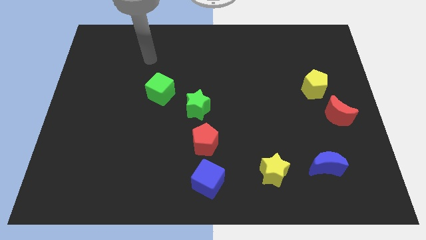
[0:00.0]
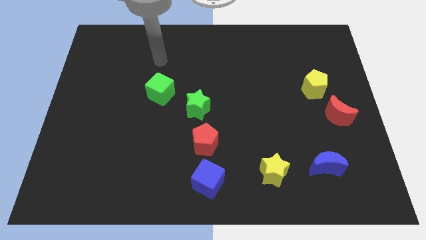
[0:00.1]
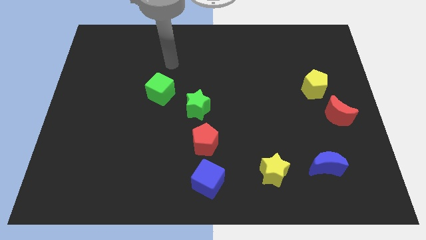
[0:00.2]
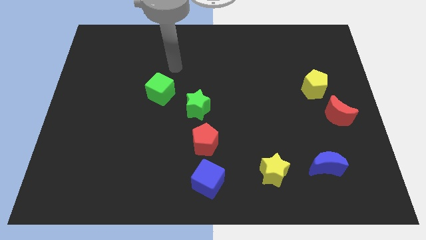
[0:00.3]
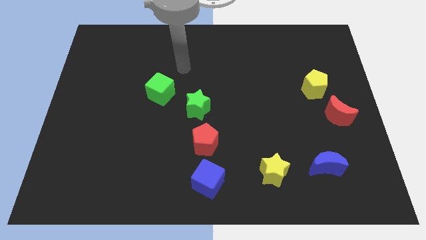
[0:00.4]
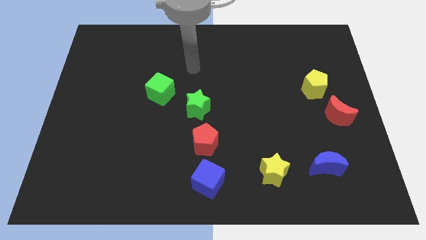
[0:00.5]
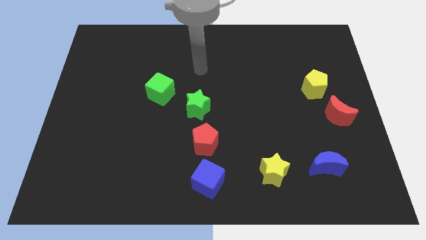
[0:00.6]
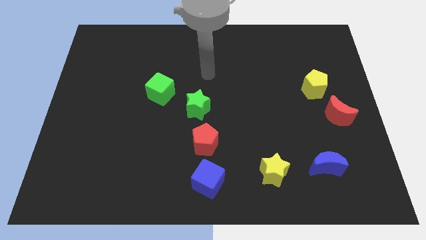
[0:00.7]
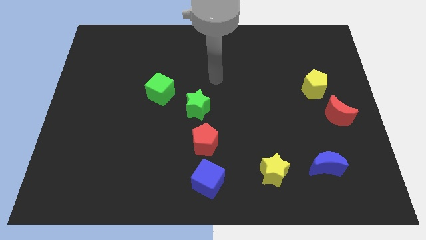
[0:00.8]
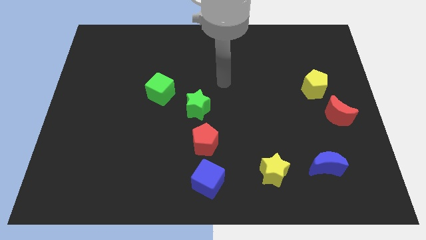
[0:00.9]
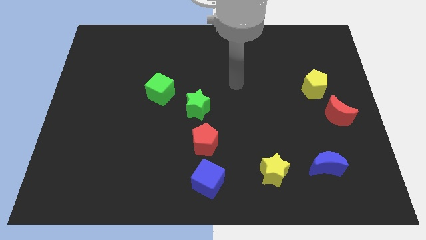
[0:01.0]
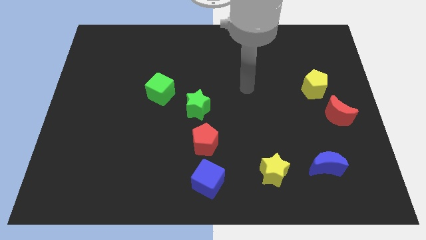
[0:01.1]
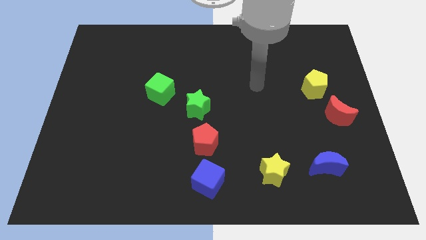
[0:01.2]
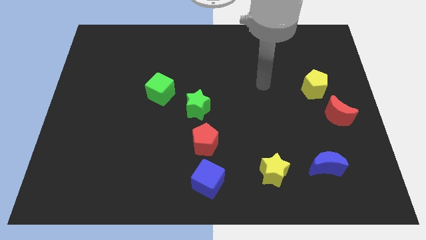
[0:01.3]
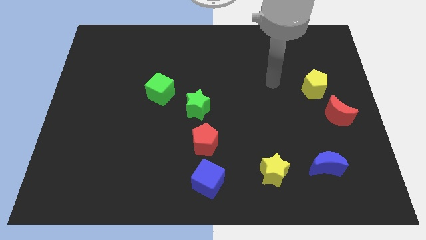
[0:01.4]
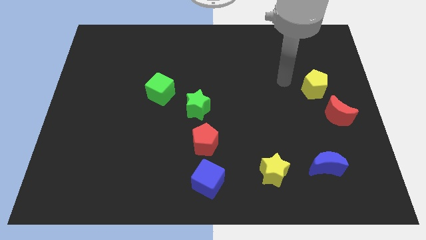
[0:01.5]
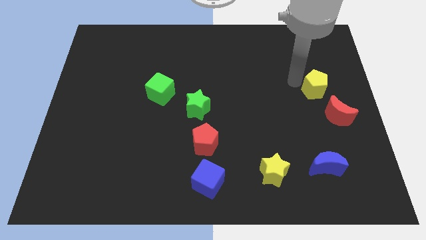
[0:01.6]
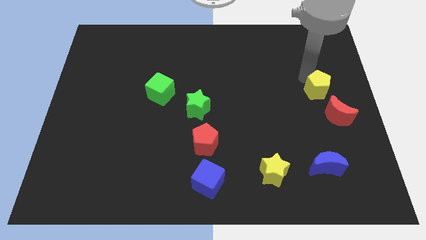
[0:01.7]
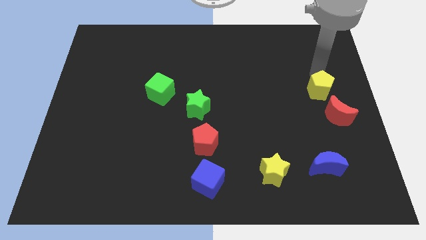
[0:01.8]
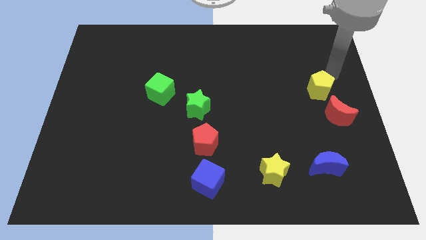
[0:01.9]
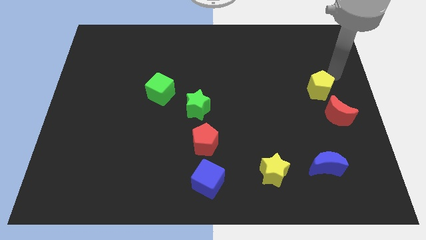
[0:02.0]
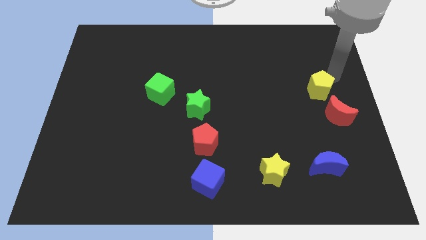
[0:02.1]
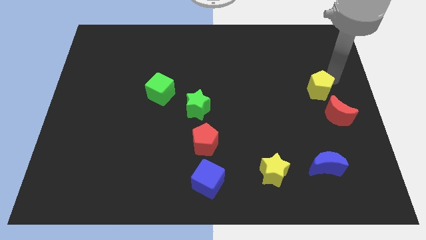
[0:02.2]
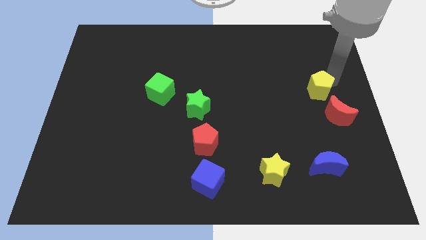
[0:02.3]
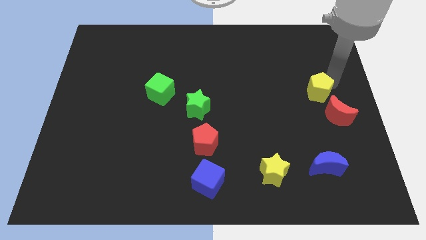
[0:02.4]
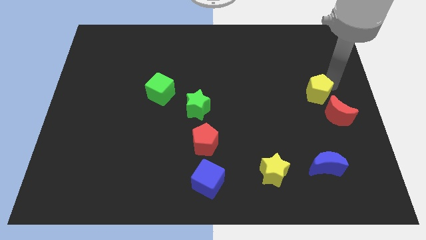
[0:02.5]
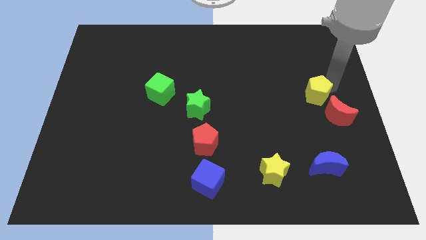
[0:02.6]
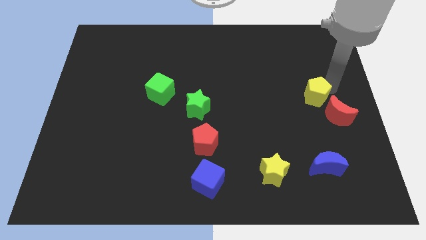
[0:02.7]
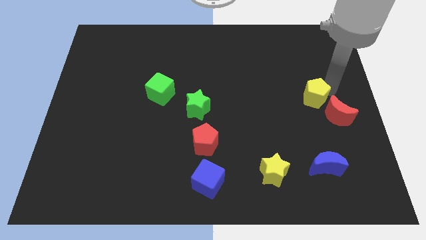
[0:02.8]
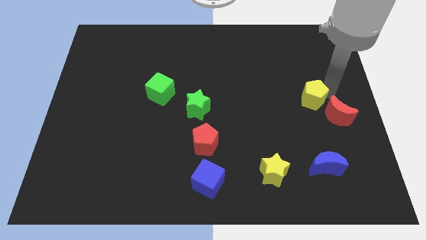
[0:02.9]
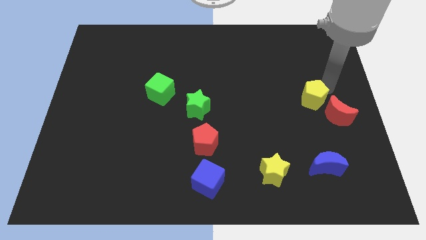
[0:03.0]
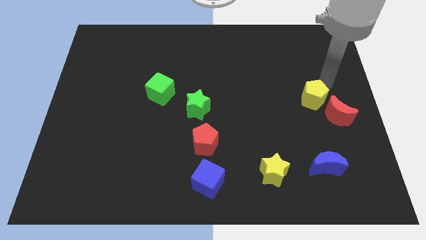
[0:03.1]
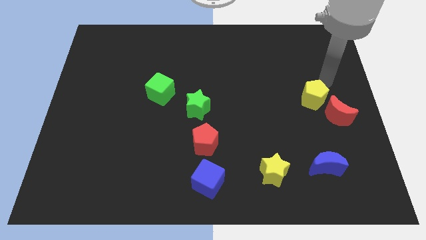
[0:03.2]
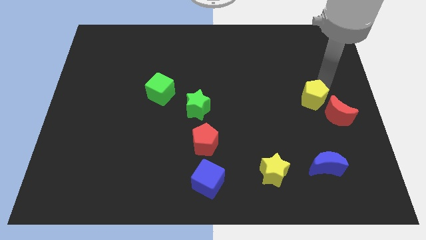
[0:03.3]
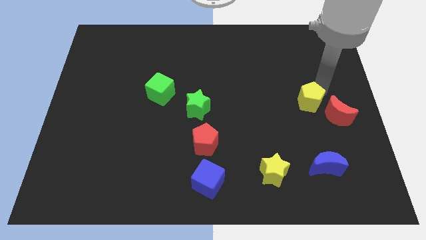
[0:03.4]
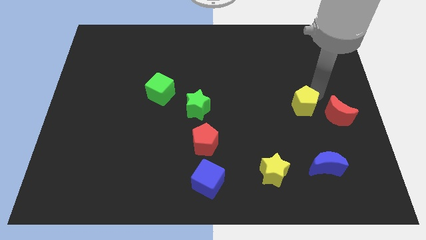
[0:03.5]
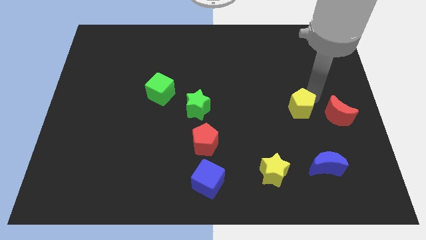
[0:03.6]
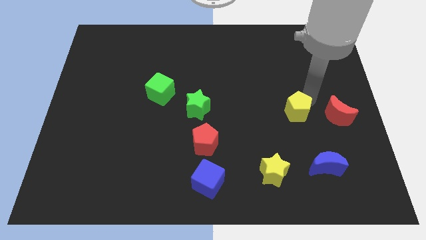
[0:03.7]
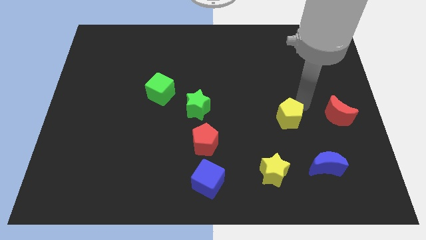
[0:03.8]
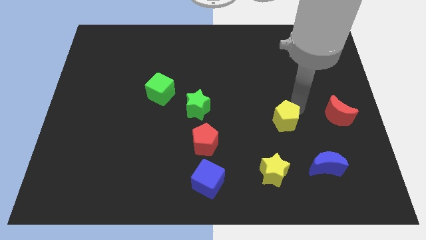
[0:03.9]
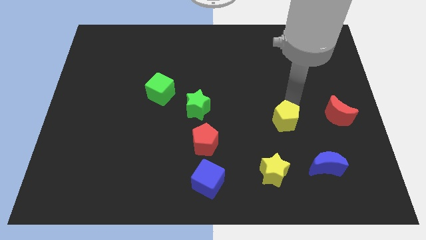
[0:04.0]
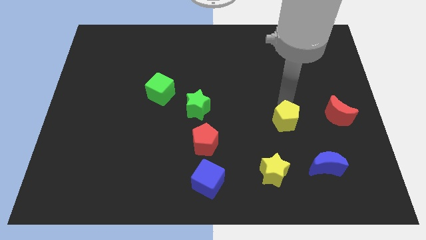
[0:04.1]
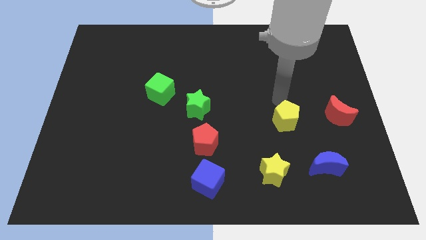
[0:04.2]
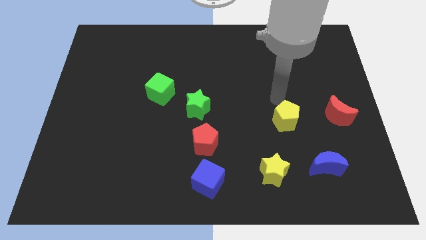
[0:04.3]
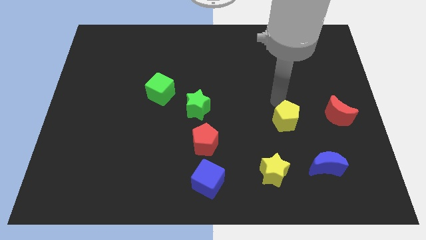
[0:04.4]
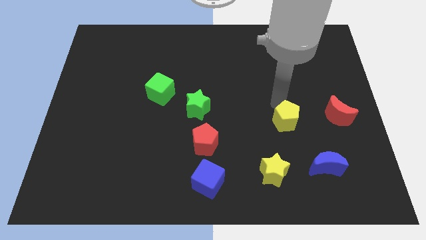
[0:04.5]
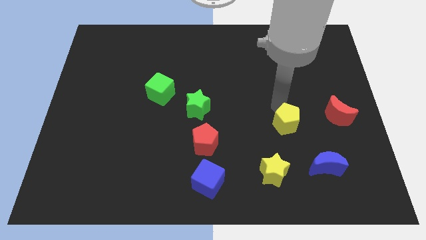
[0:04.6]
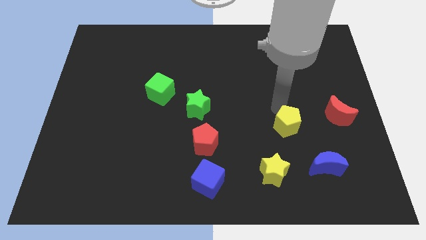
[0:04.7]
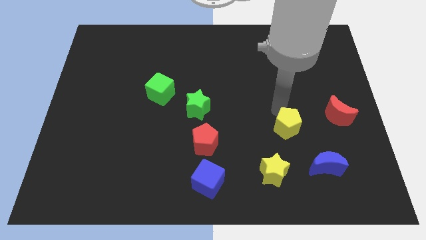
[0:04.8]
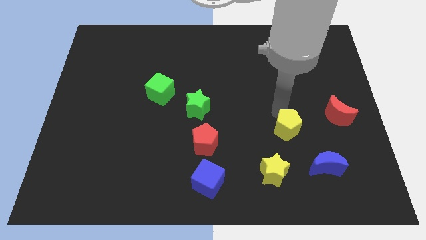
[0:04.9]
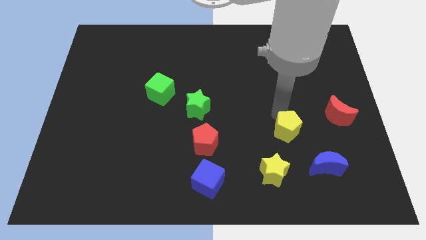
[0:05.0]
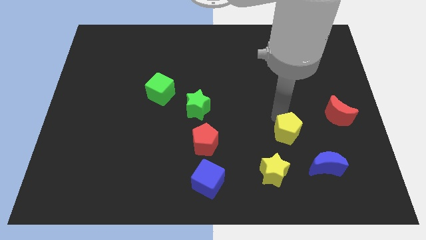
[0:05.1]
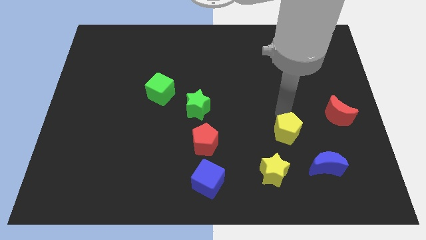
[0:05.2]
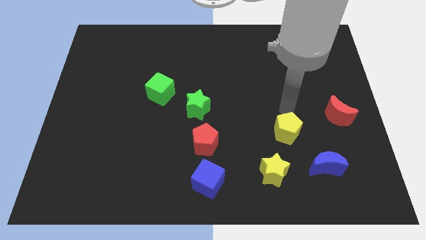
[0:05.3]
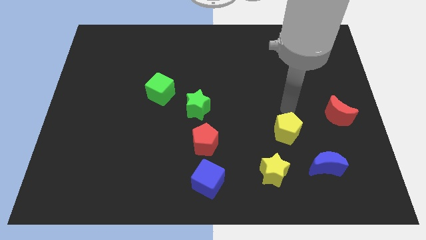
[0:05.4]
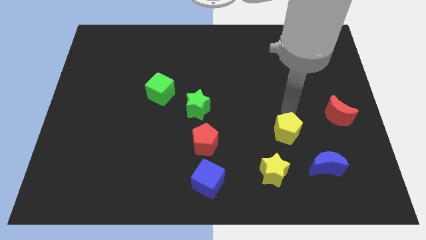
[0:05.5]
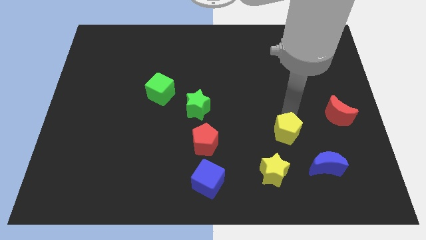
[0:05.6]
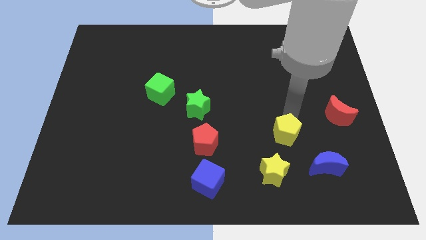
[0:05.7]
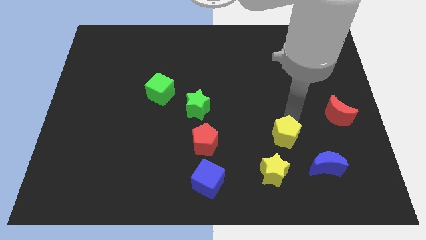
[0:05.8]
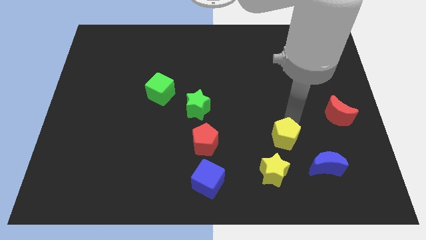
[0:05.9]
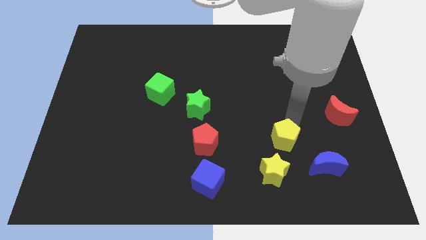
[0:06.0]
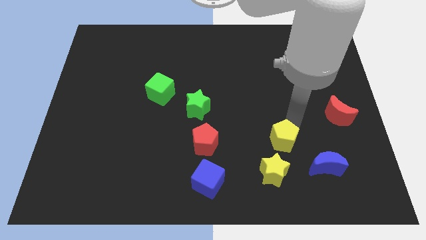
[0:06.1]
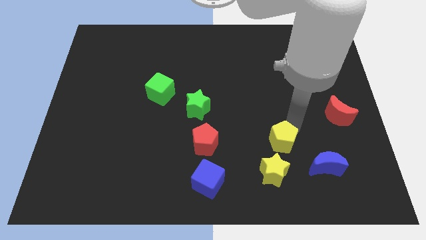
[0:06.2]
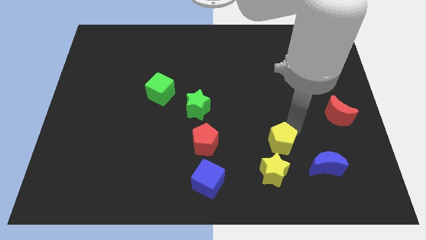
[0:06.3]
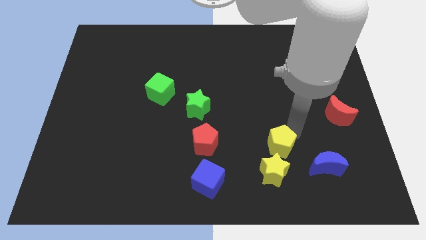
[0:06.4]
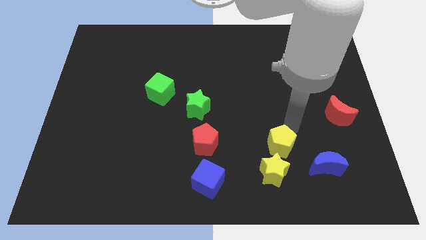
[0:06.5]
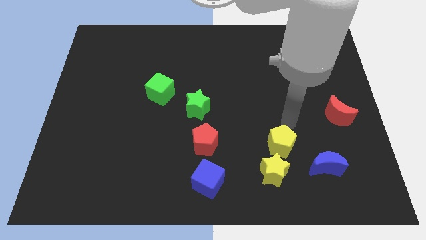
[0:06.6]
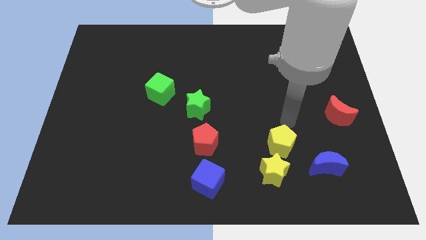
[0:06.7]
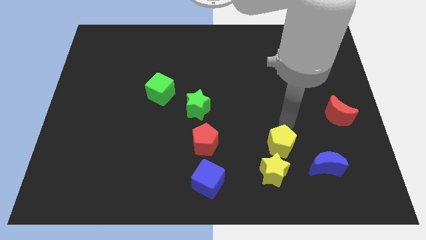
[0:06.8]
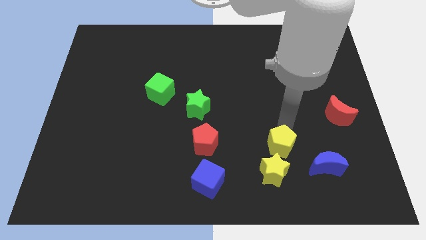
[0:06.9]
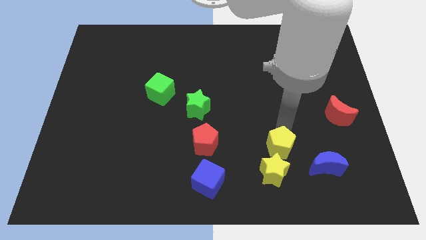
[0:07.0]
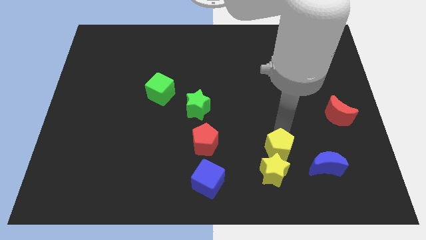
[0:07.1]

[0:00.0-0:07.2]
move the yellow pentagon towards the yellow star

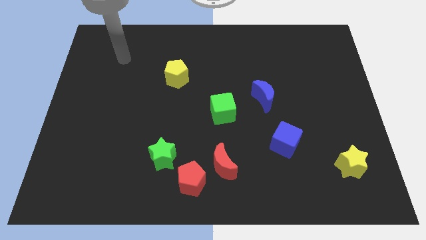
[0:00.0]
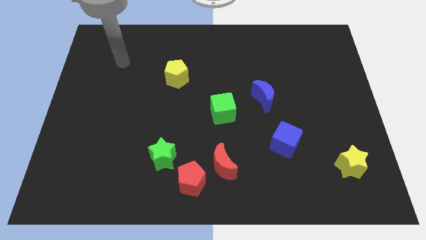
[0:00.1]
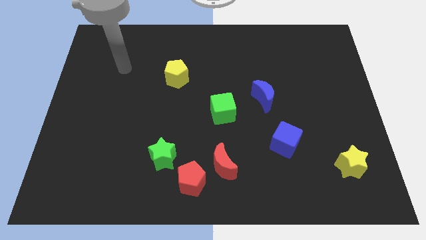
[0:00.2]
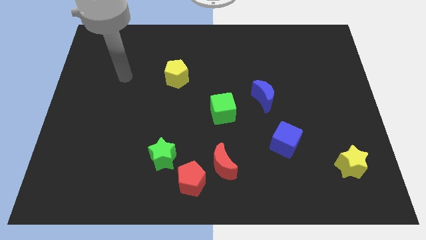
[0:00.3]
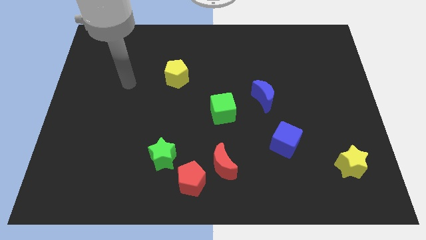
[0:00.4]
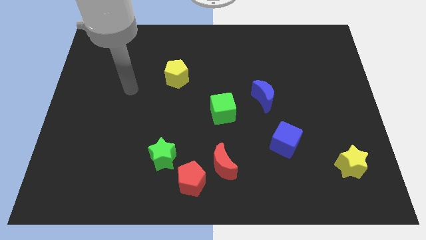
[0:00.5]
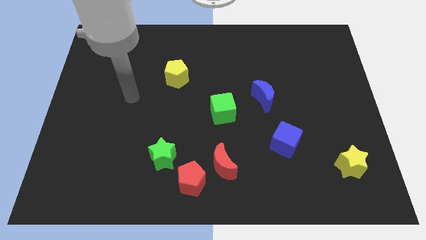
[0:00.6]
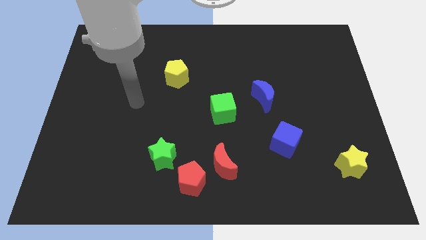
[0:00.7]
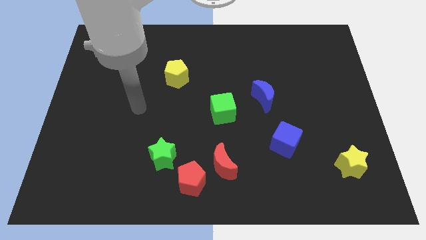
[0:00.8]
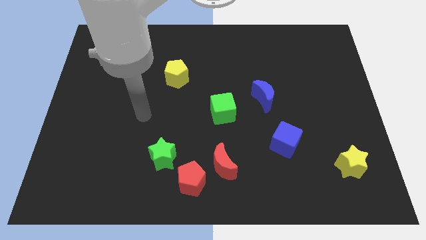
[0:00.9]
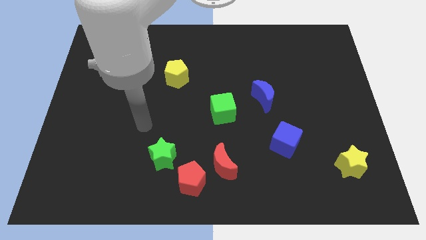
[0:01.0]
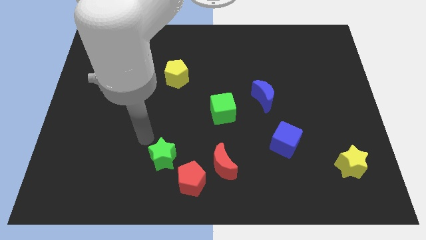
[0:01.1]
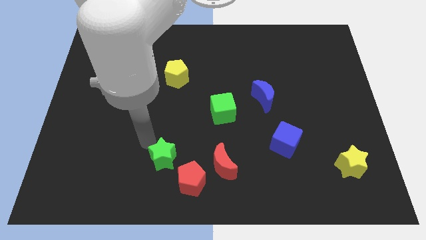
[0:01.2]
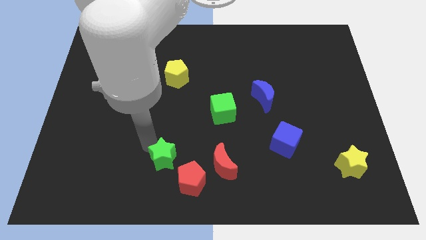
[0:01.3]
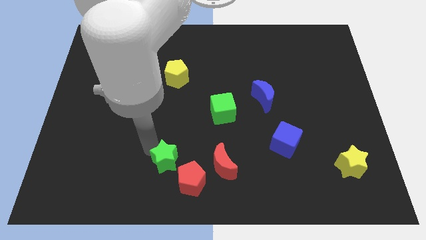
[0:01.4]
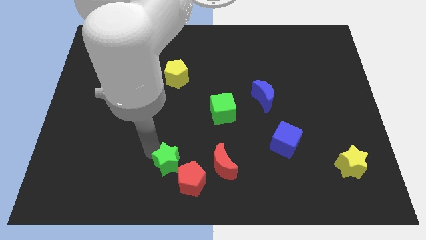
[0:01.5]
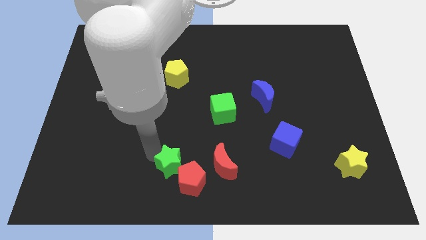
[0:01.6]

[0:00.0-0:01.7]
move the green star towards the red pentagon
